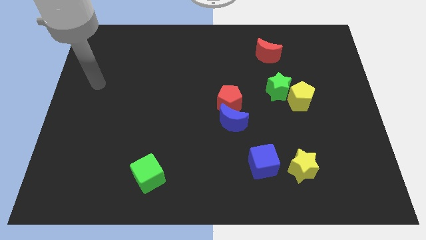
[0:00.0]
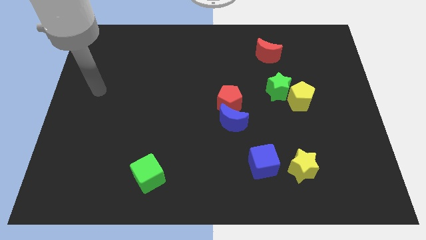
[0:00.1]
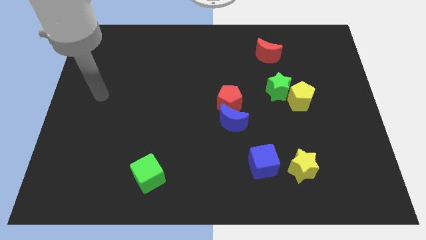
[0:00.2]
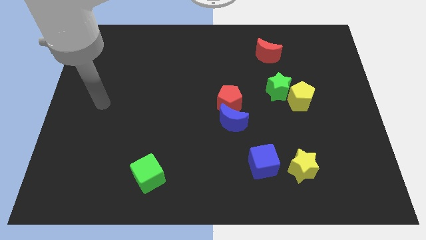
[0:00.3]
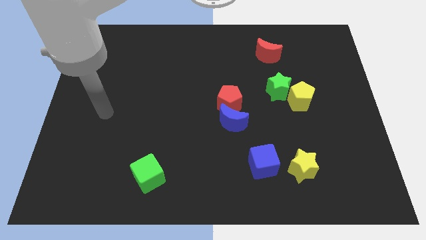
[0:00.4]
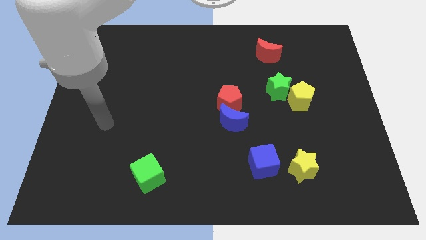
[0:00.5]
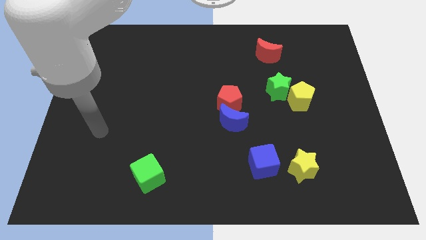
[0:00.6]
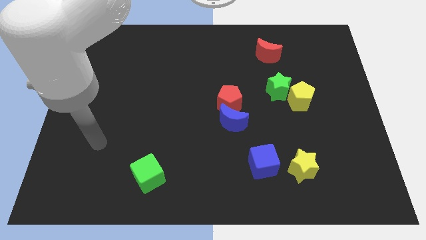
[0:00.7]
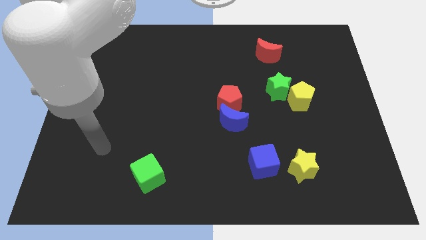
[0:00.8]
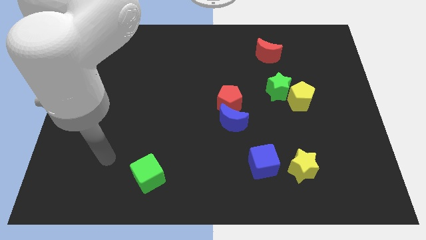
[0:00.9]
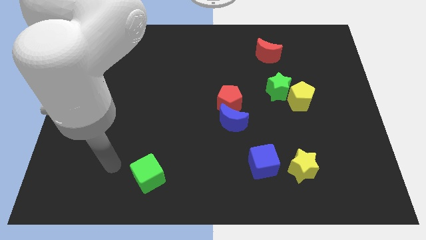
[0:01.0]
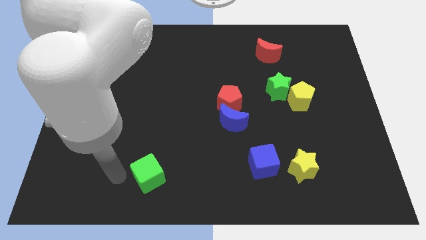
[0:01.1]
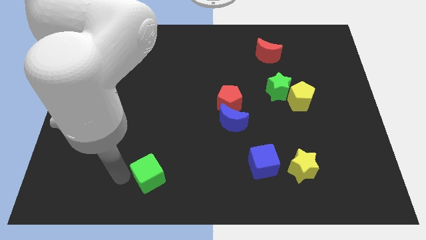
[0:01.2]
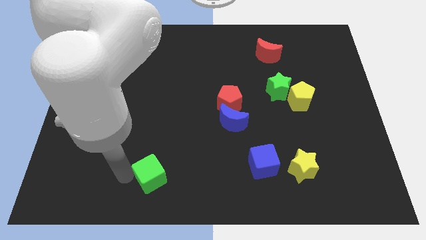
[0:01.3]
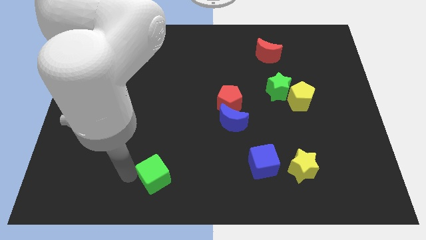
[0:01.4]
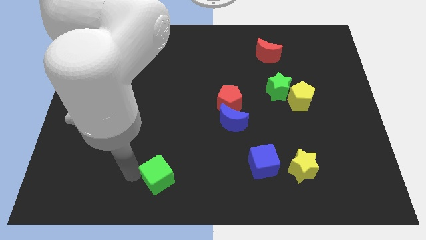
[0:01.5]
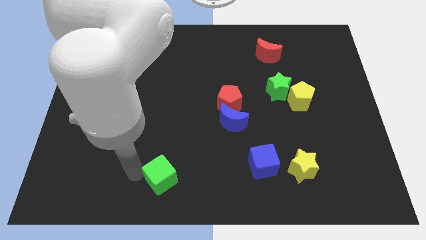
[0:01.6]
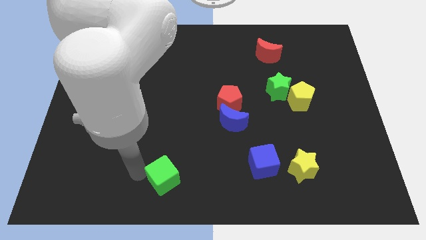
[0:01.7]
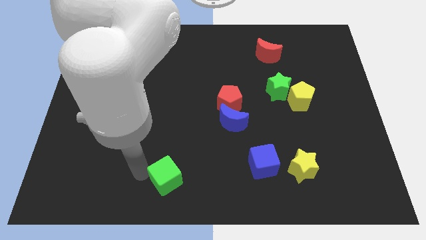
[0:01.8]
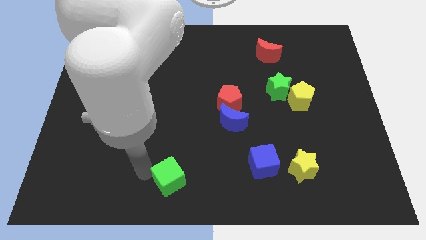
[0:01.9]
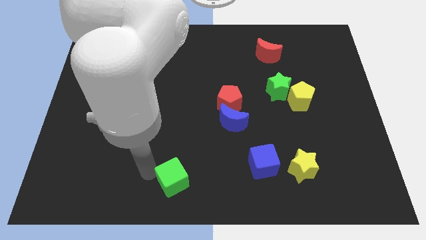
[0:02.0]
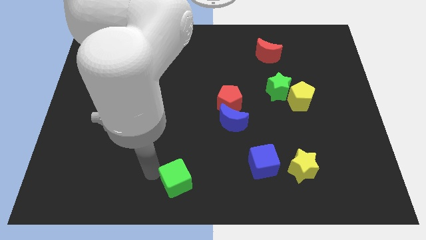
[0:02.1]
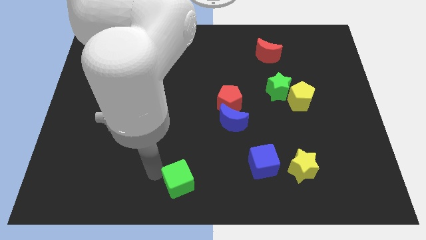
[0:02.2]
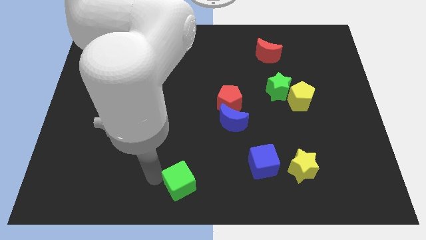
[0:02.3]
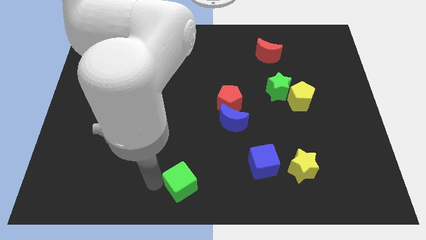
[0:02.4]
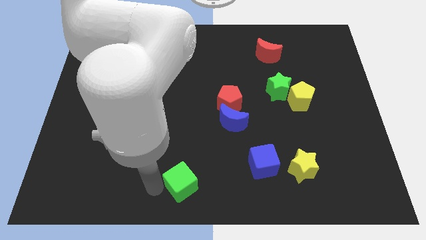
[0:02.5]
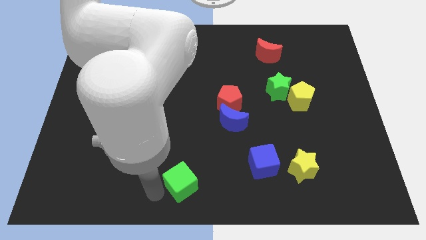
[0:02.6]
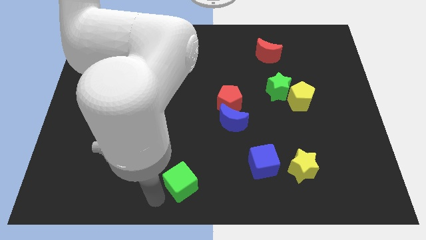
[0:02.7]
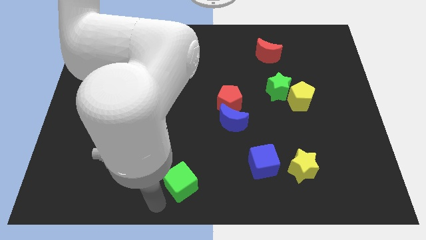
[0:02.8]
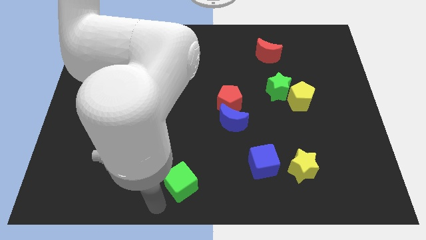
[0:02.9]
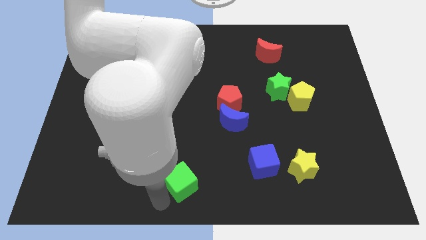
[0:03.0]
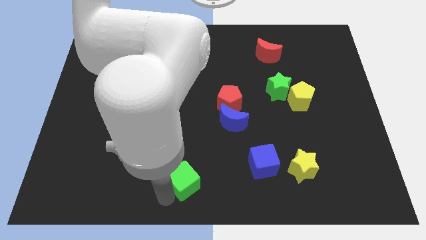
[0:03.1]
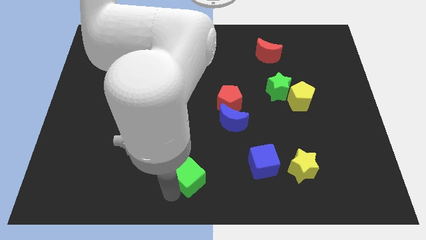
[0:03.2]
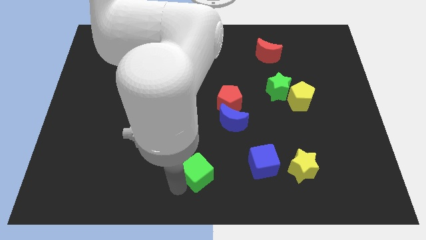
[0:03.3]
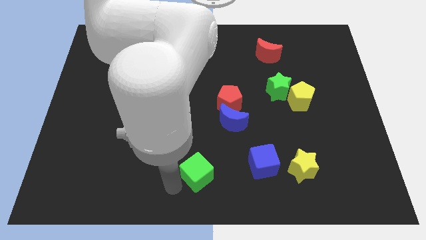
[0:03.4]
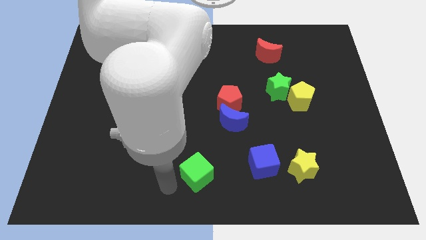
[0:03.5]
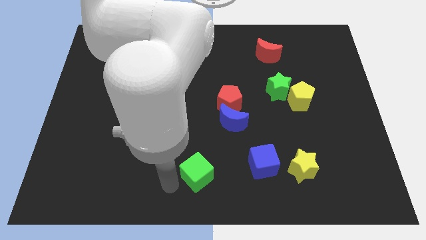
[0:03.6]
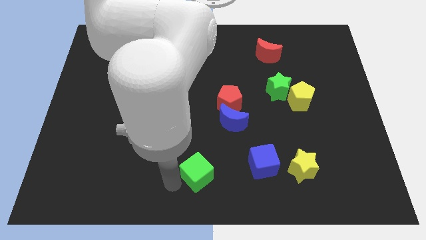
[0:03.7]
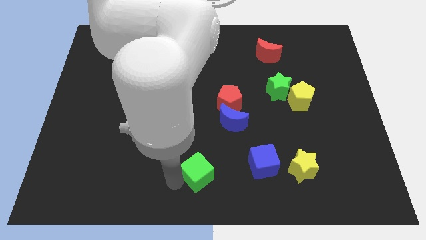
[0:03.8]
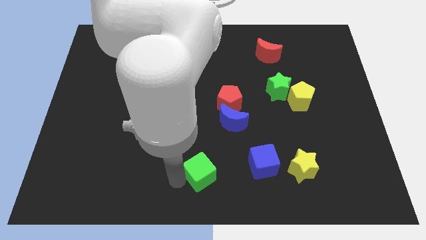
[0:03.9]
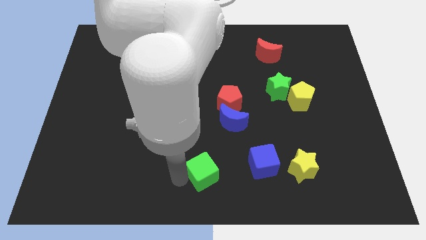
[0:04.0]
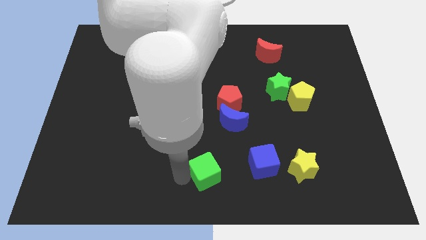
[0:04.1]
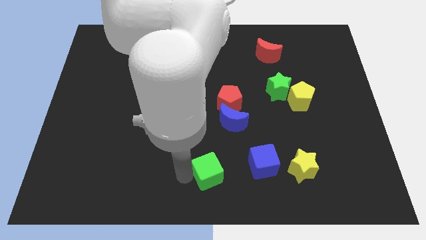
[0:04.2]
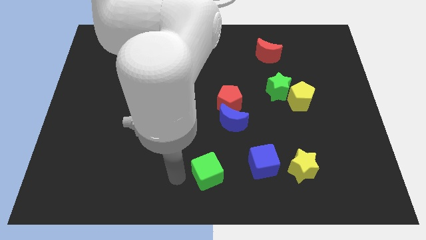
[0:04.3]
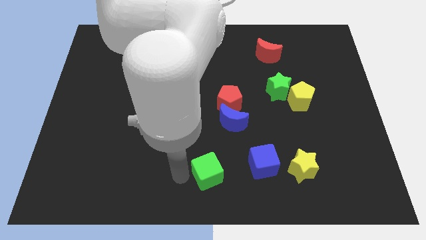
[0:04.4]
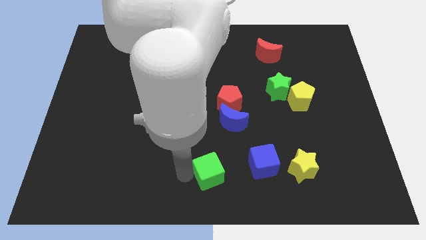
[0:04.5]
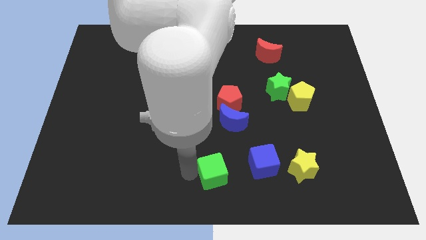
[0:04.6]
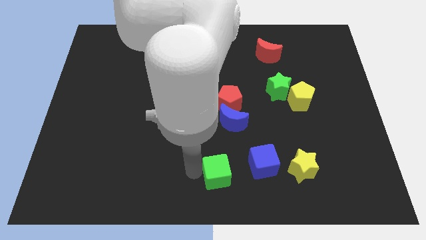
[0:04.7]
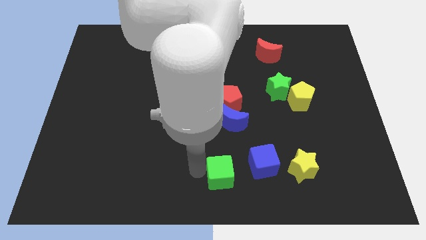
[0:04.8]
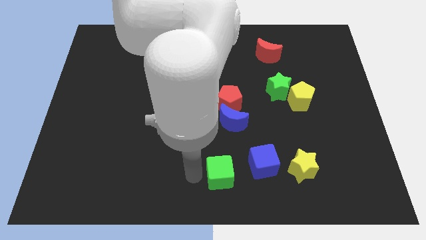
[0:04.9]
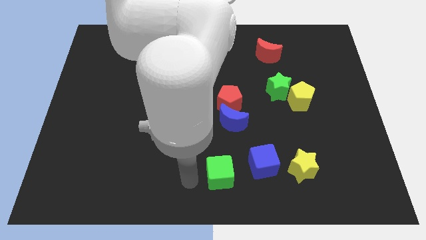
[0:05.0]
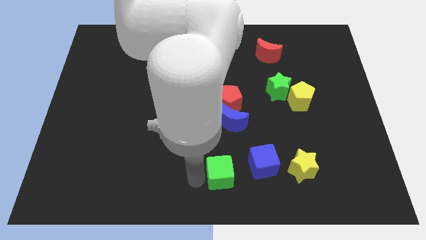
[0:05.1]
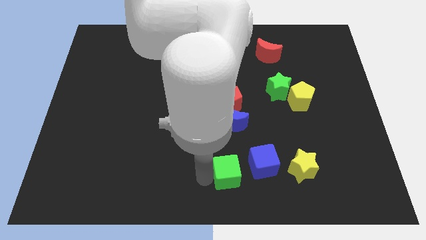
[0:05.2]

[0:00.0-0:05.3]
move the green cube left of the yellow star

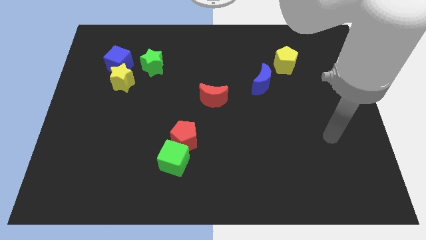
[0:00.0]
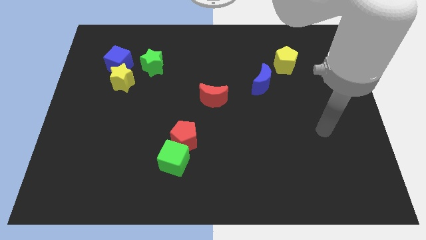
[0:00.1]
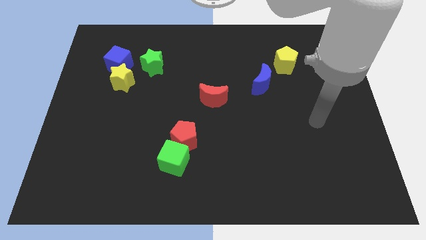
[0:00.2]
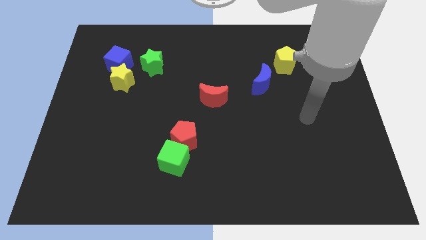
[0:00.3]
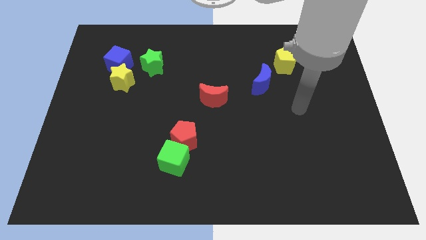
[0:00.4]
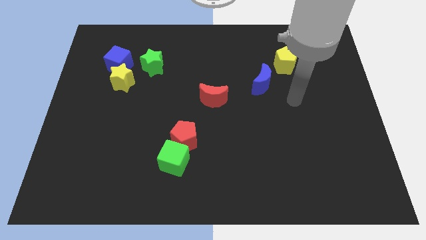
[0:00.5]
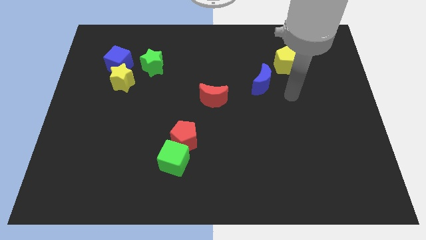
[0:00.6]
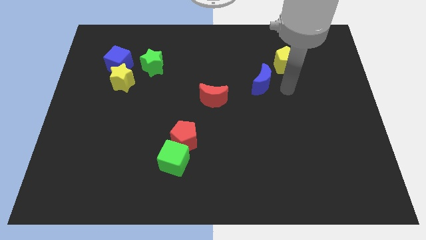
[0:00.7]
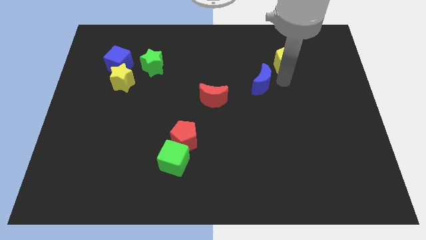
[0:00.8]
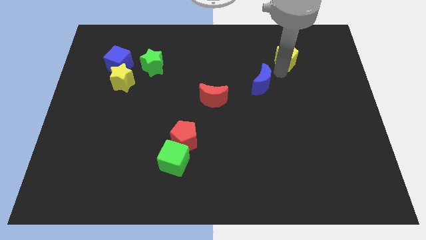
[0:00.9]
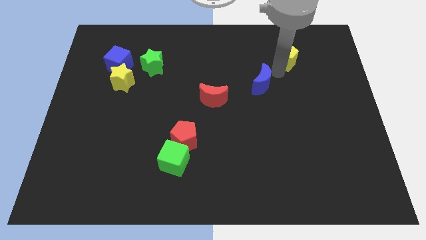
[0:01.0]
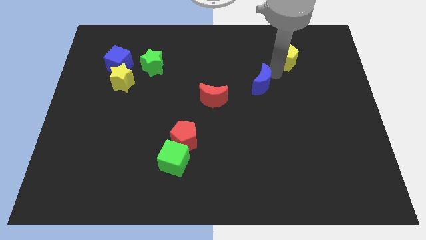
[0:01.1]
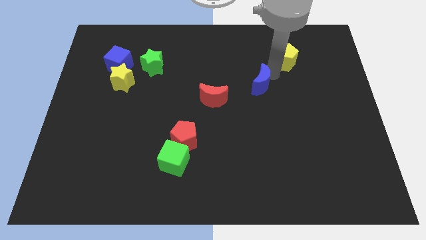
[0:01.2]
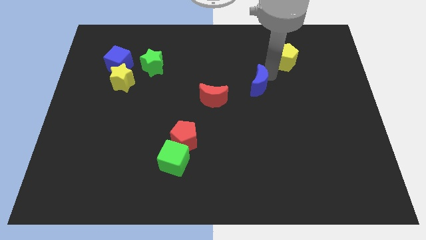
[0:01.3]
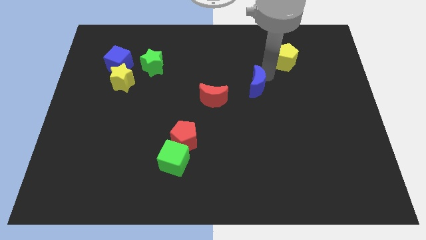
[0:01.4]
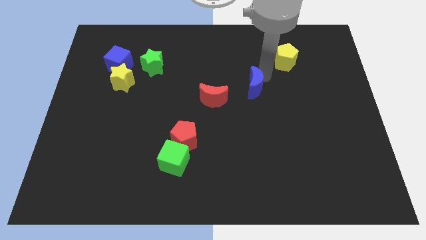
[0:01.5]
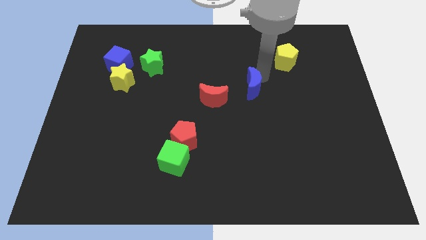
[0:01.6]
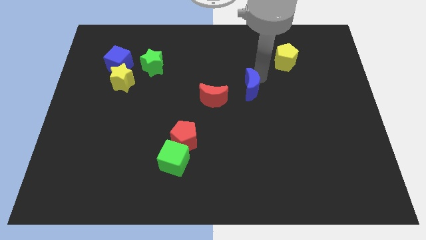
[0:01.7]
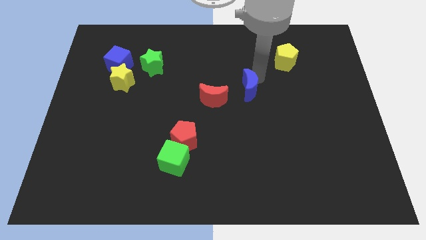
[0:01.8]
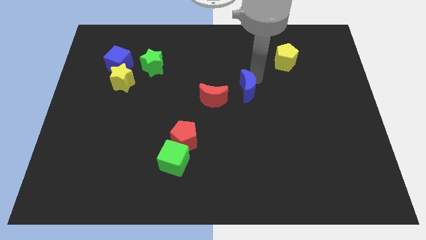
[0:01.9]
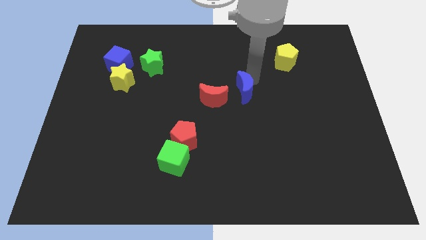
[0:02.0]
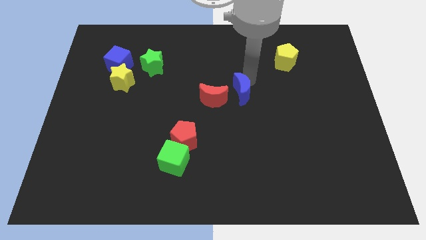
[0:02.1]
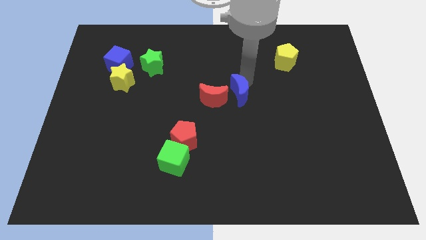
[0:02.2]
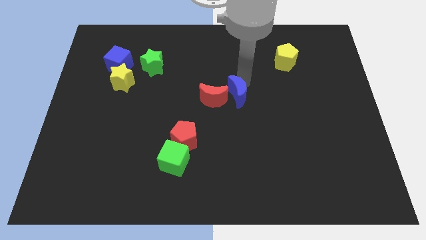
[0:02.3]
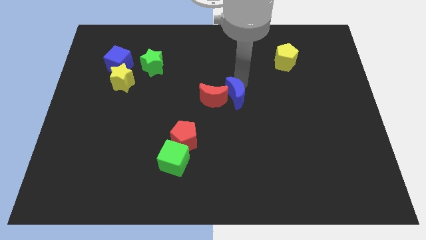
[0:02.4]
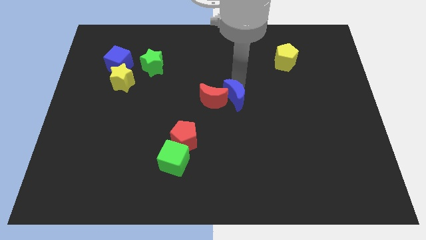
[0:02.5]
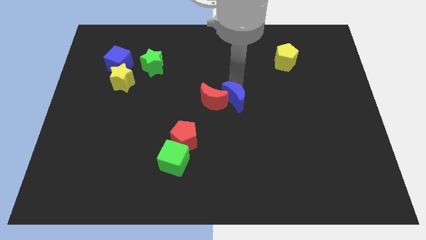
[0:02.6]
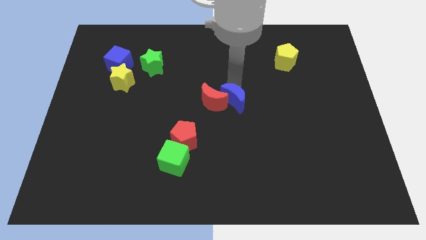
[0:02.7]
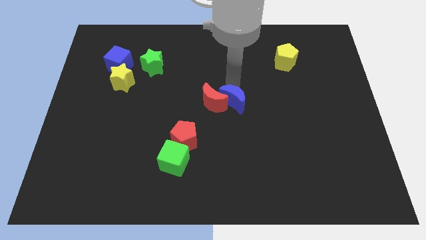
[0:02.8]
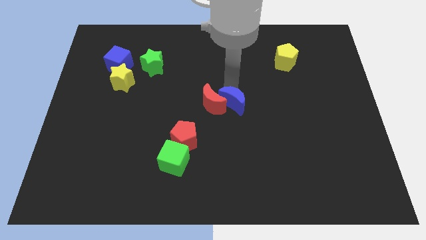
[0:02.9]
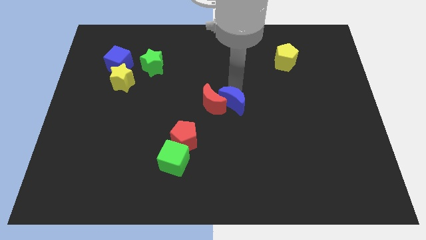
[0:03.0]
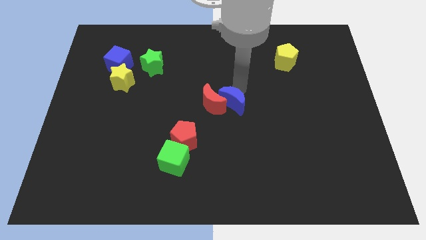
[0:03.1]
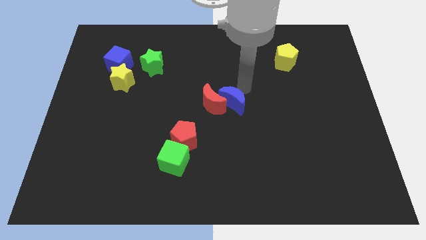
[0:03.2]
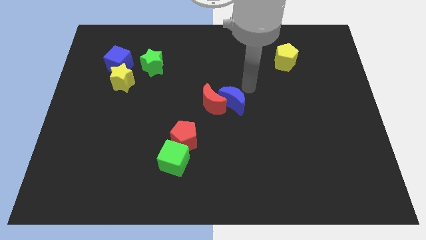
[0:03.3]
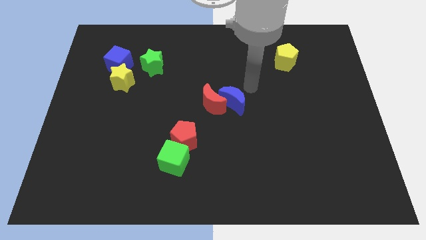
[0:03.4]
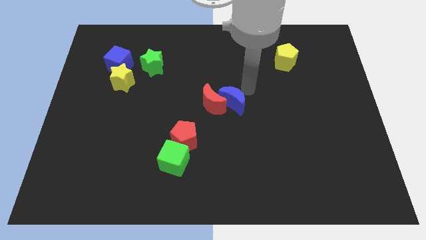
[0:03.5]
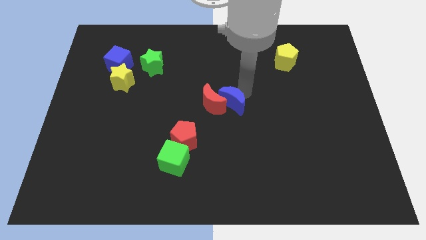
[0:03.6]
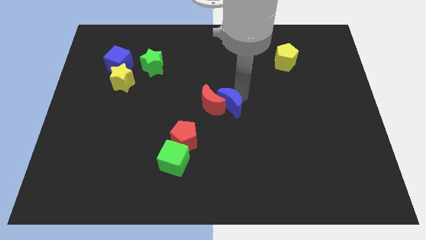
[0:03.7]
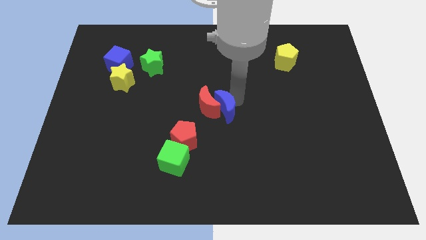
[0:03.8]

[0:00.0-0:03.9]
move the blue moon to the top right side of the red pentagon
